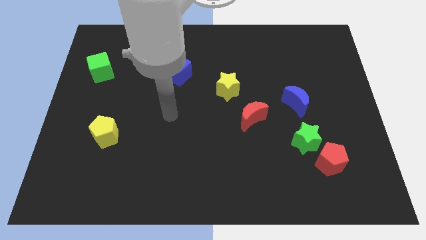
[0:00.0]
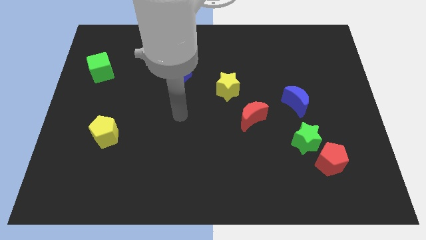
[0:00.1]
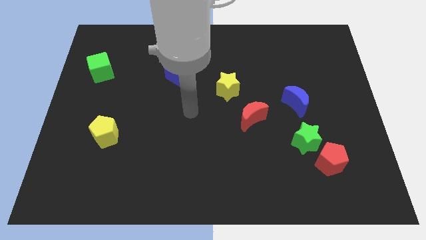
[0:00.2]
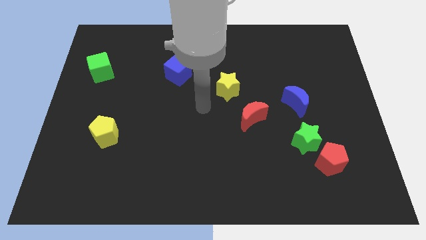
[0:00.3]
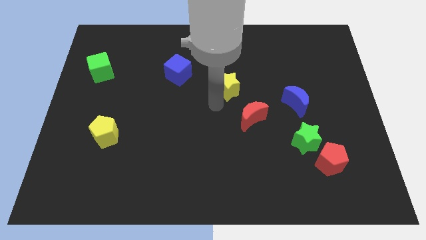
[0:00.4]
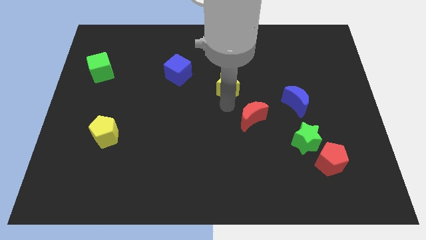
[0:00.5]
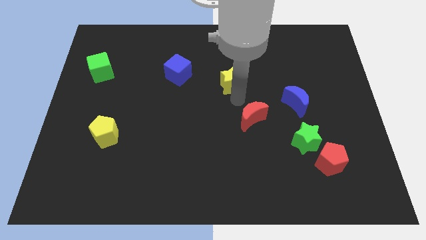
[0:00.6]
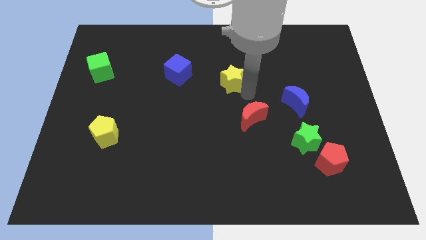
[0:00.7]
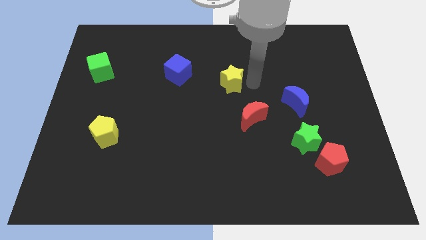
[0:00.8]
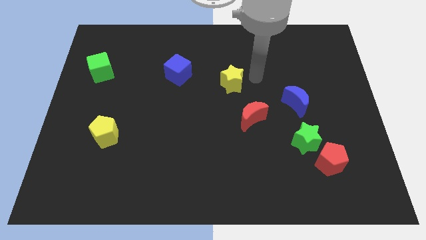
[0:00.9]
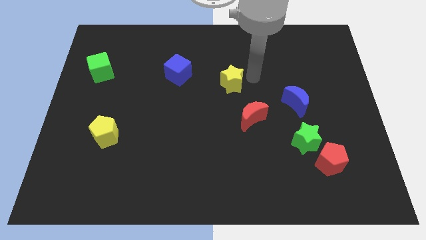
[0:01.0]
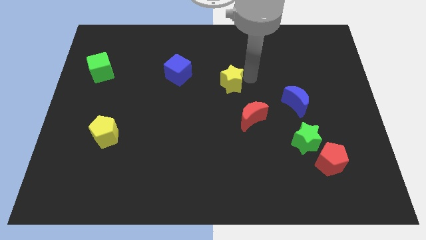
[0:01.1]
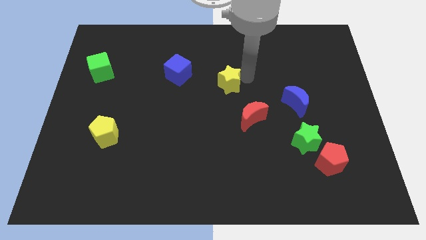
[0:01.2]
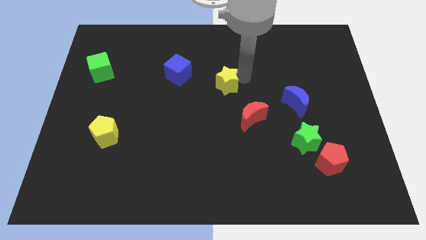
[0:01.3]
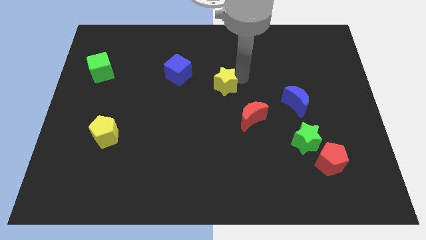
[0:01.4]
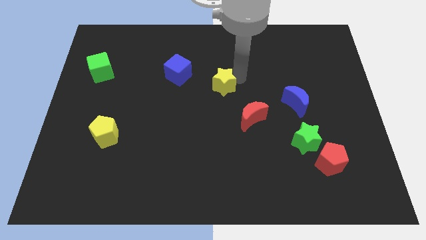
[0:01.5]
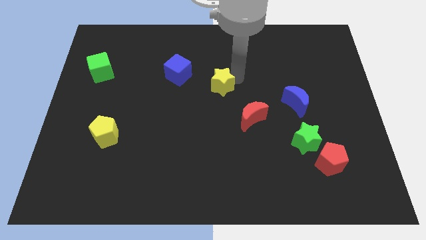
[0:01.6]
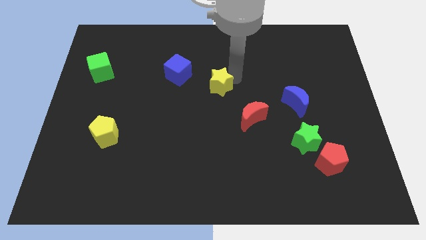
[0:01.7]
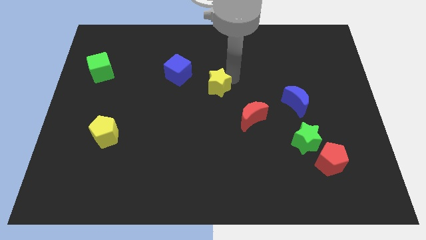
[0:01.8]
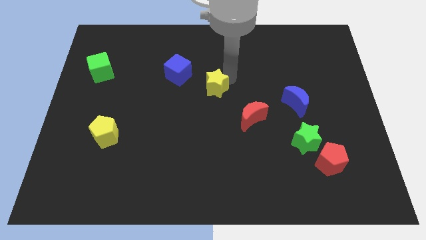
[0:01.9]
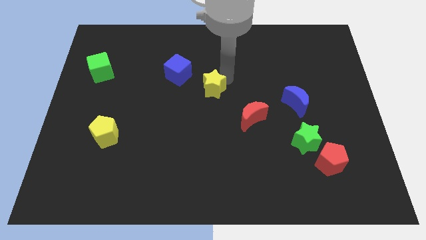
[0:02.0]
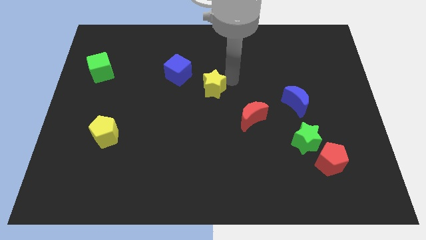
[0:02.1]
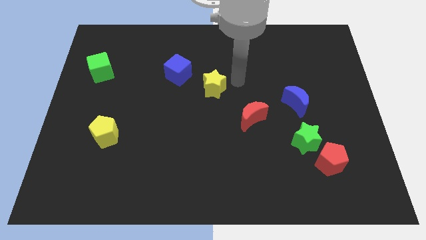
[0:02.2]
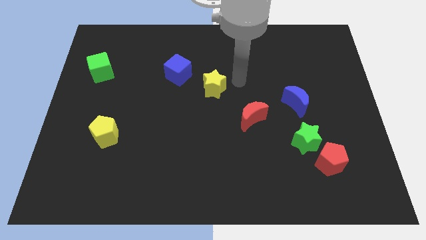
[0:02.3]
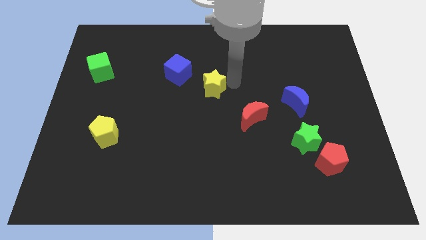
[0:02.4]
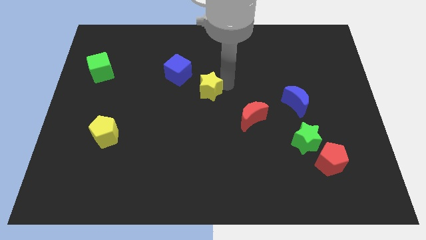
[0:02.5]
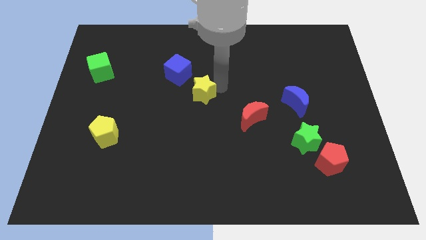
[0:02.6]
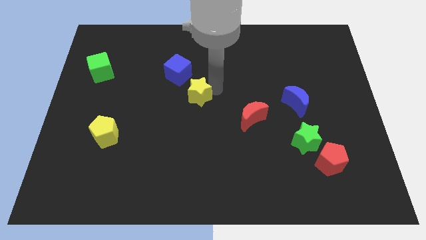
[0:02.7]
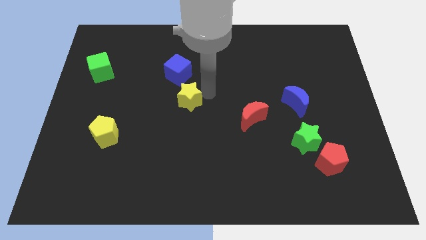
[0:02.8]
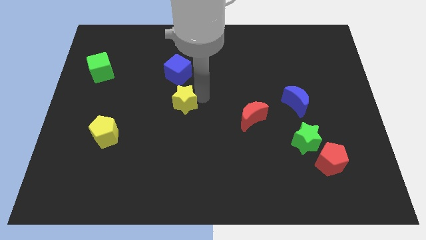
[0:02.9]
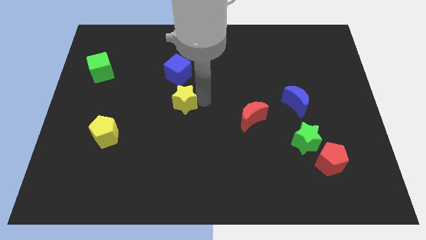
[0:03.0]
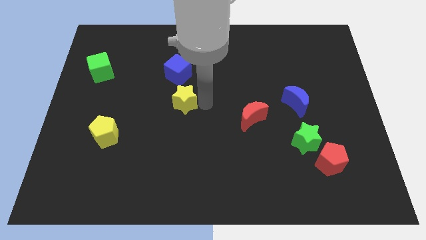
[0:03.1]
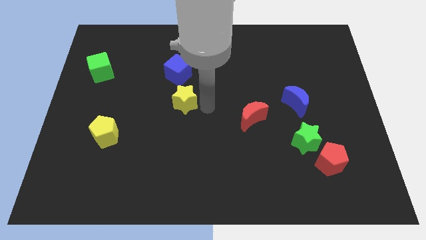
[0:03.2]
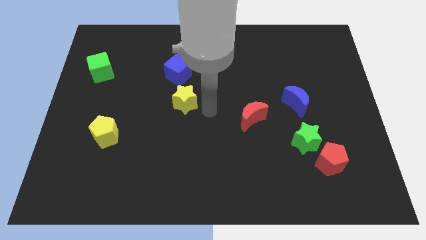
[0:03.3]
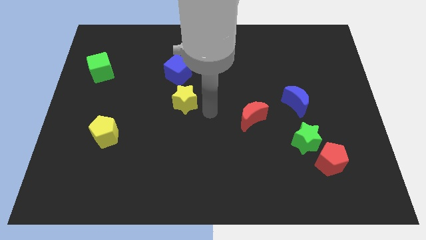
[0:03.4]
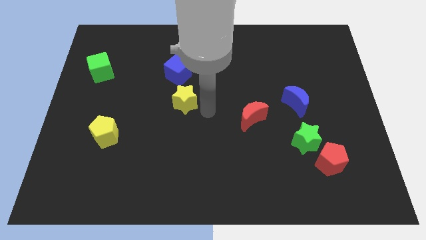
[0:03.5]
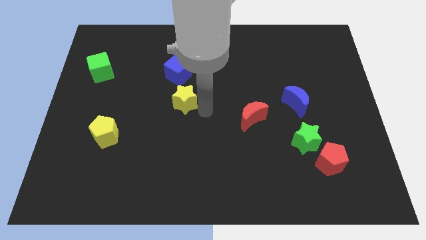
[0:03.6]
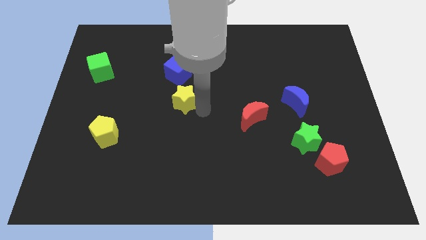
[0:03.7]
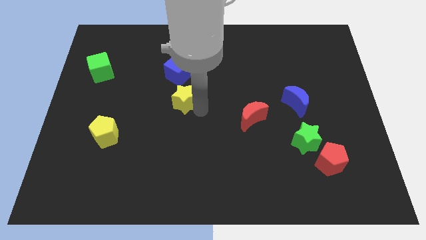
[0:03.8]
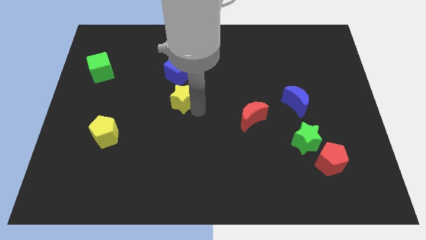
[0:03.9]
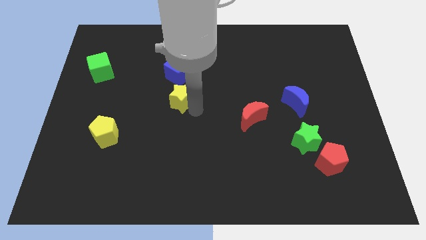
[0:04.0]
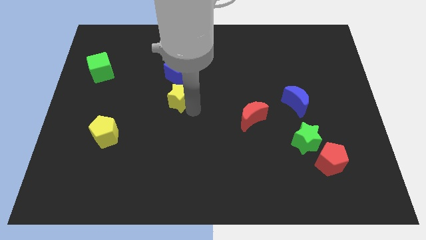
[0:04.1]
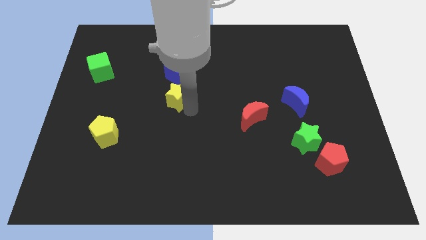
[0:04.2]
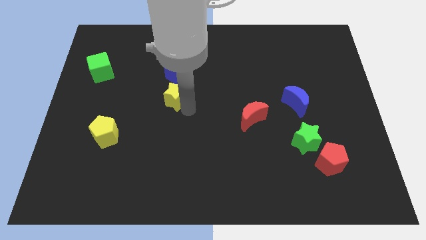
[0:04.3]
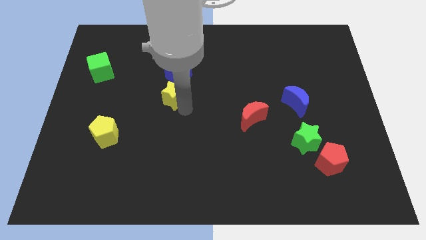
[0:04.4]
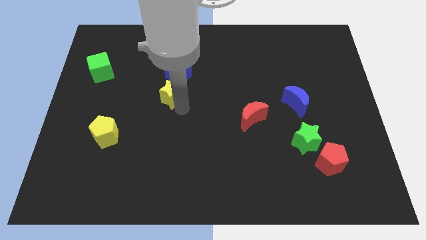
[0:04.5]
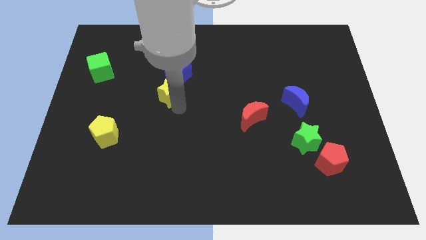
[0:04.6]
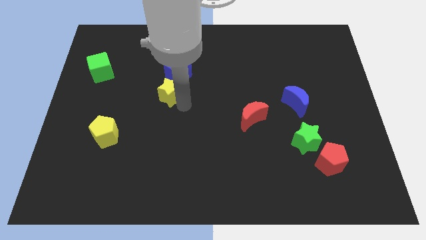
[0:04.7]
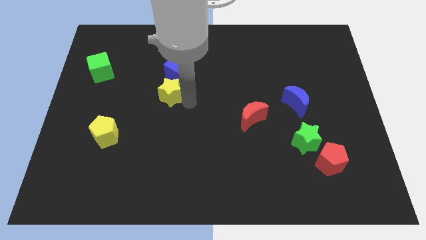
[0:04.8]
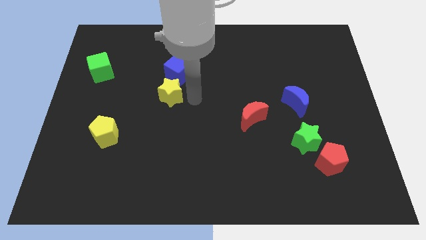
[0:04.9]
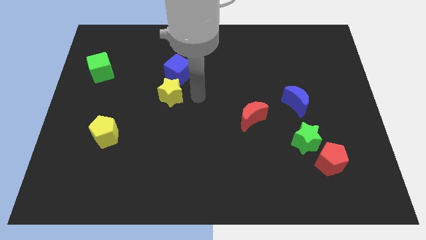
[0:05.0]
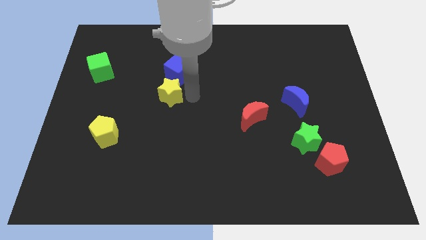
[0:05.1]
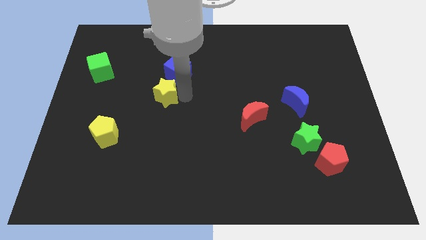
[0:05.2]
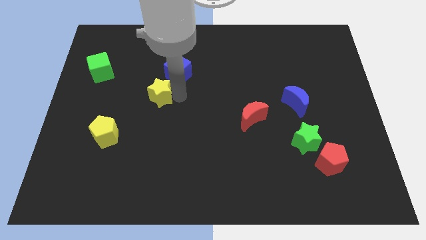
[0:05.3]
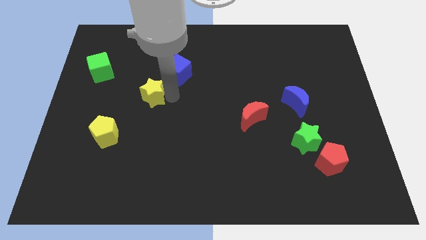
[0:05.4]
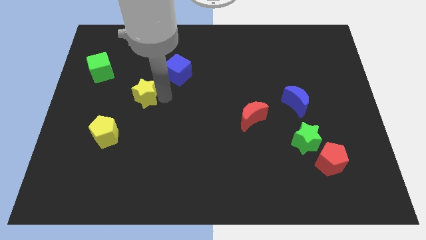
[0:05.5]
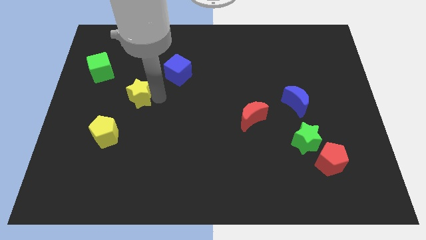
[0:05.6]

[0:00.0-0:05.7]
push the yellow star left

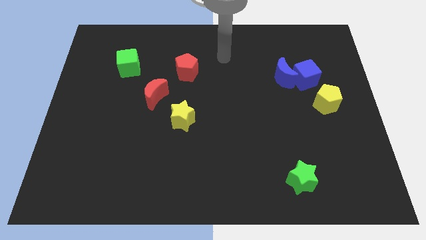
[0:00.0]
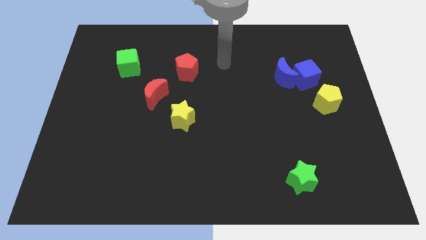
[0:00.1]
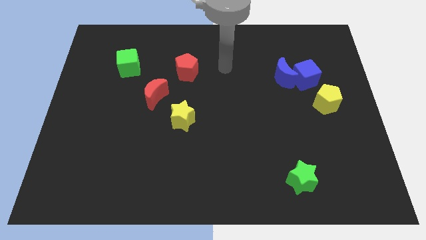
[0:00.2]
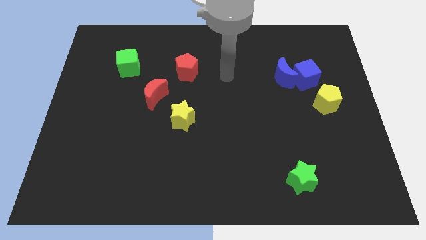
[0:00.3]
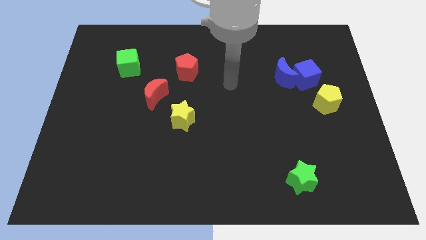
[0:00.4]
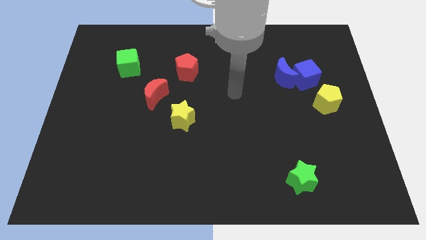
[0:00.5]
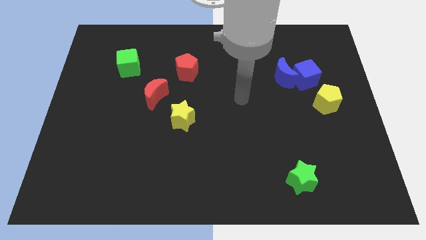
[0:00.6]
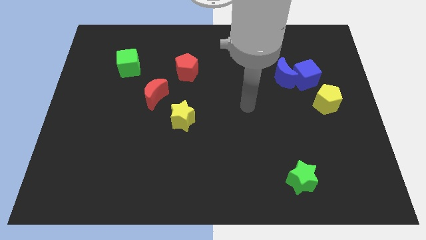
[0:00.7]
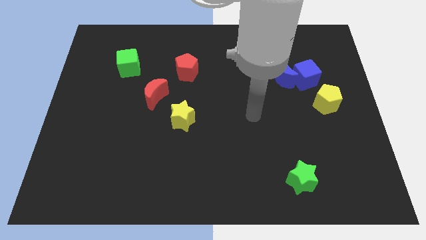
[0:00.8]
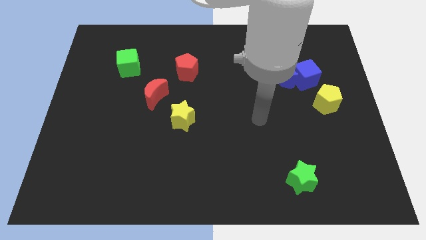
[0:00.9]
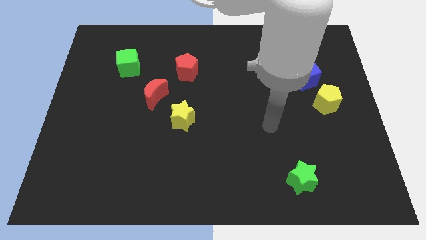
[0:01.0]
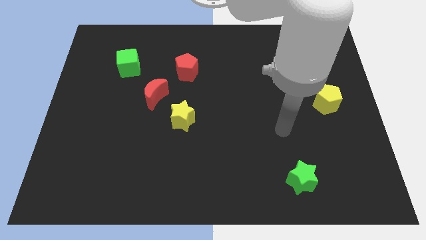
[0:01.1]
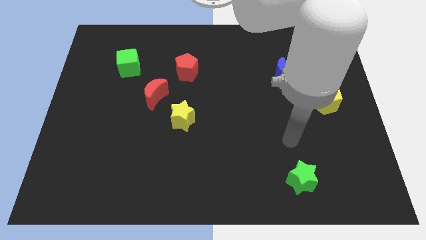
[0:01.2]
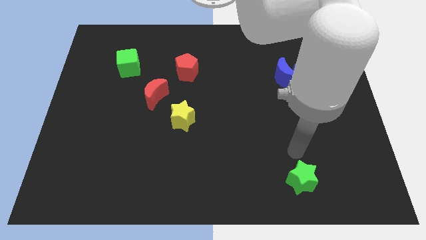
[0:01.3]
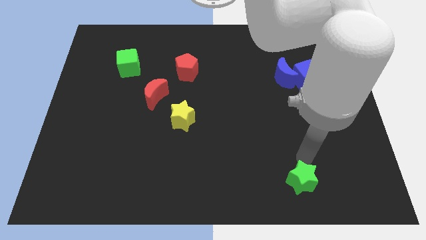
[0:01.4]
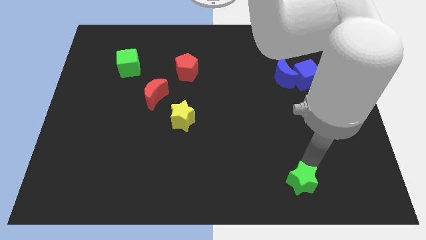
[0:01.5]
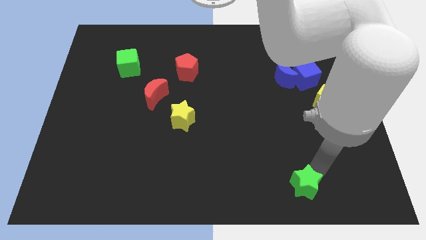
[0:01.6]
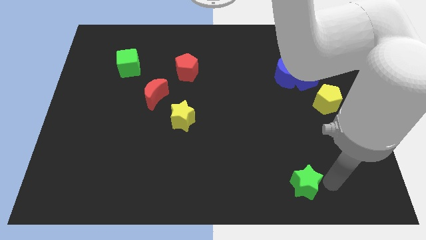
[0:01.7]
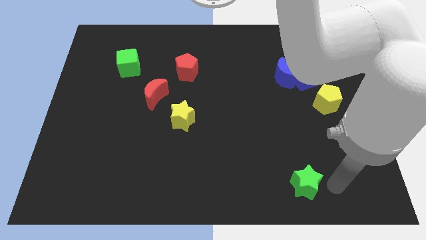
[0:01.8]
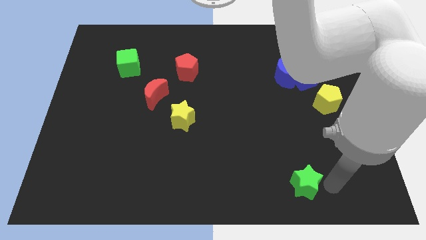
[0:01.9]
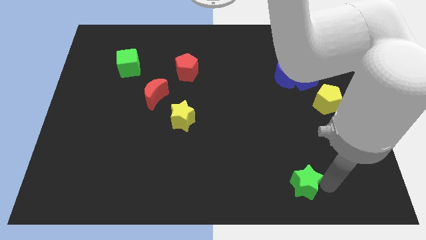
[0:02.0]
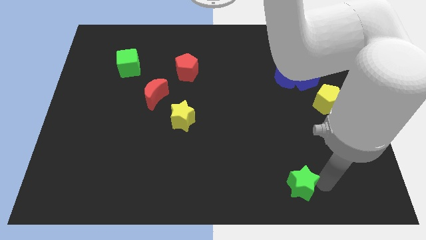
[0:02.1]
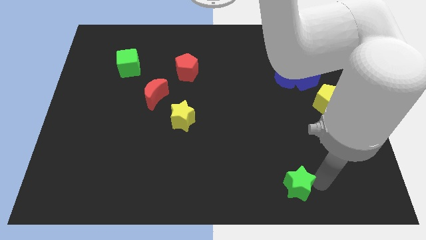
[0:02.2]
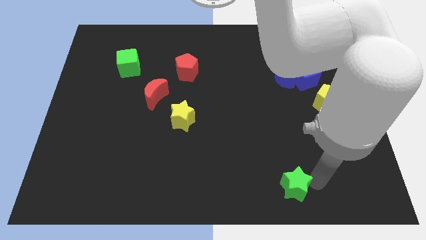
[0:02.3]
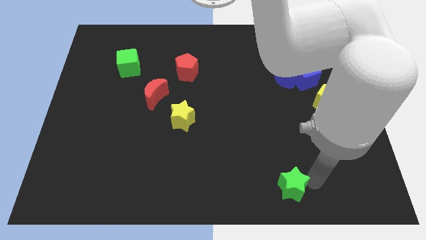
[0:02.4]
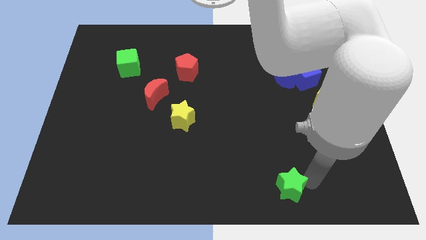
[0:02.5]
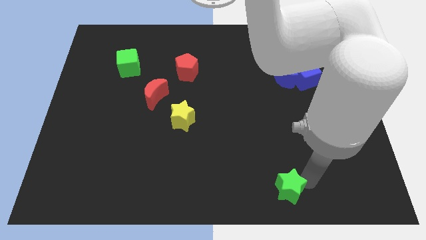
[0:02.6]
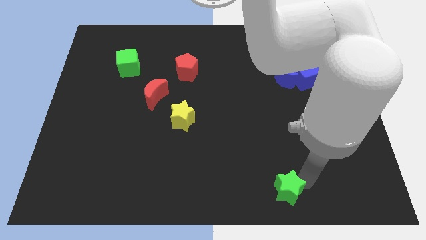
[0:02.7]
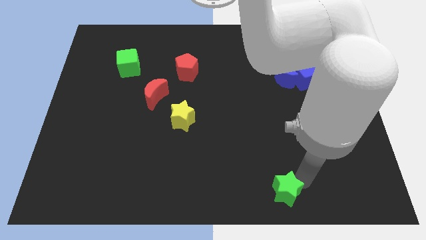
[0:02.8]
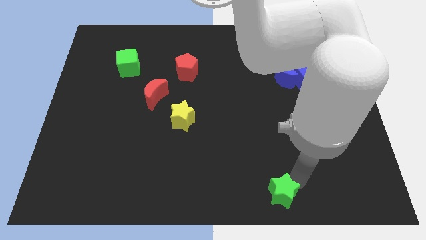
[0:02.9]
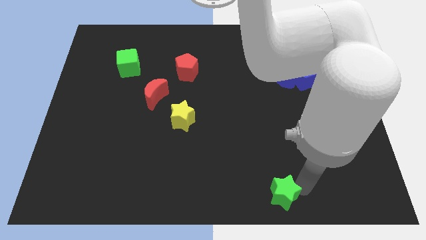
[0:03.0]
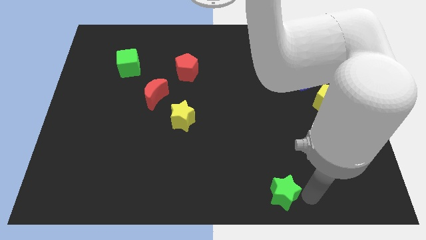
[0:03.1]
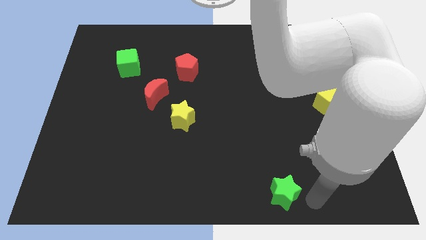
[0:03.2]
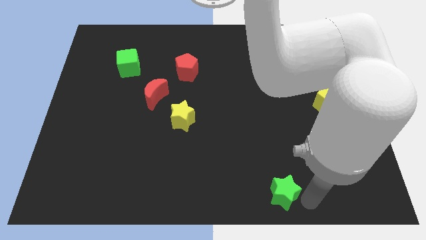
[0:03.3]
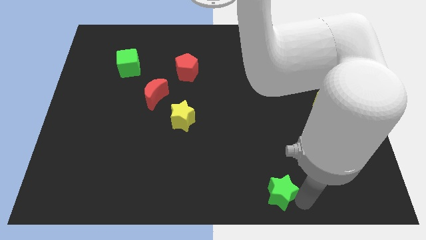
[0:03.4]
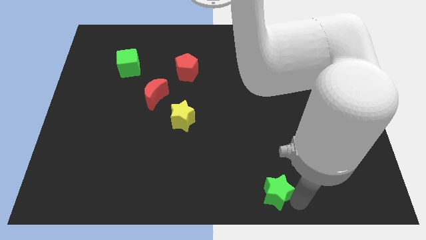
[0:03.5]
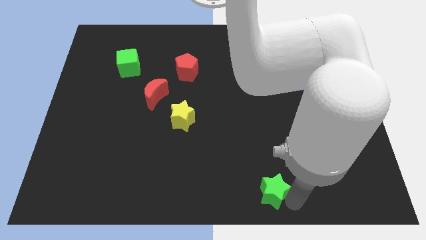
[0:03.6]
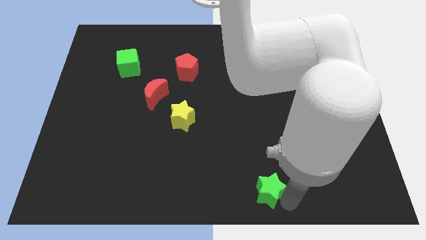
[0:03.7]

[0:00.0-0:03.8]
slightly move the green star to the left
